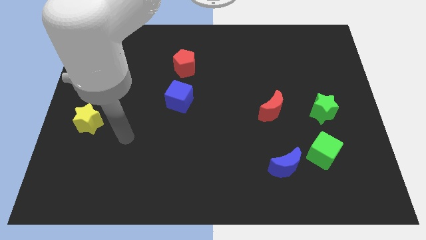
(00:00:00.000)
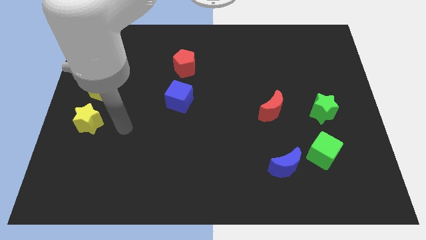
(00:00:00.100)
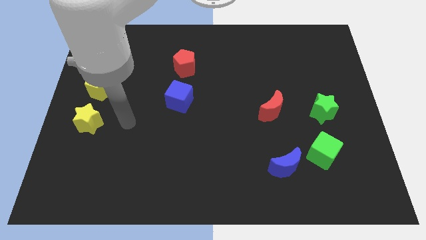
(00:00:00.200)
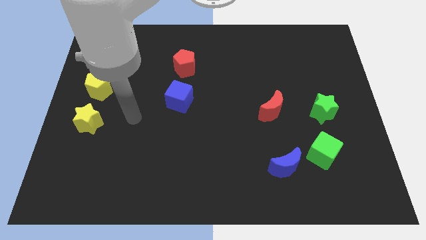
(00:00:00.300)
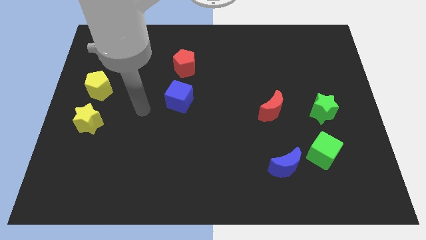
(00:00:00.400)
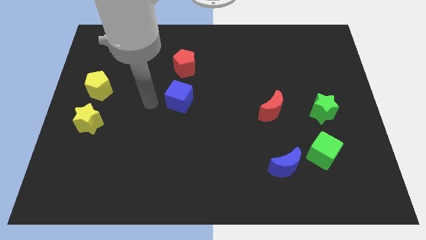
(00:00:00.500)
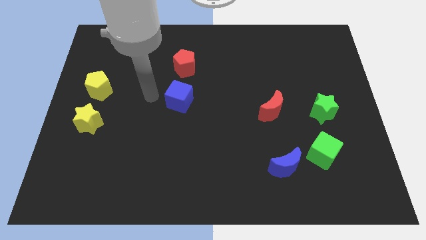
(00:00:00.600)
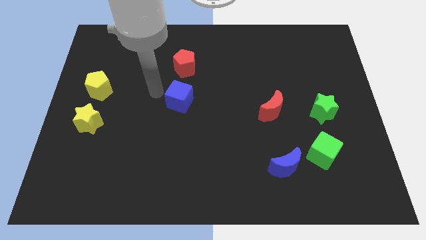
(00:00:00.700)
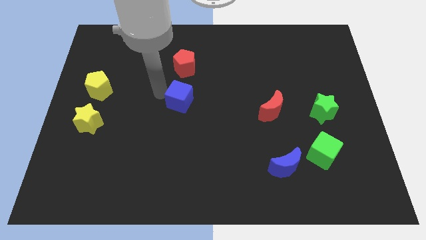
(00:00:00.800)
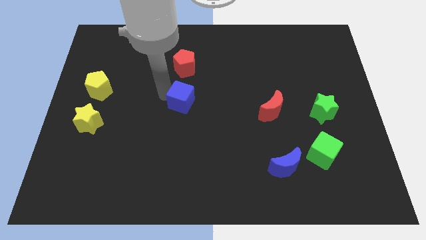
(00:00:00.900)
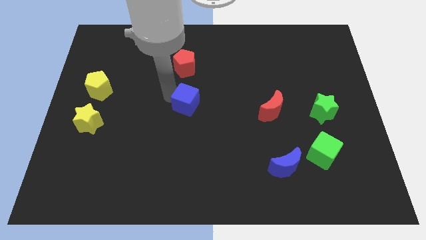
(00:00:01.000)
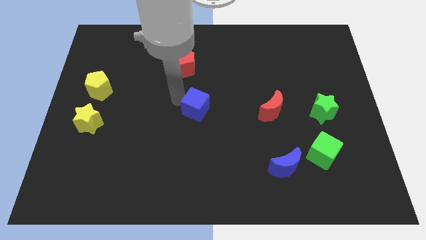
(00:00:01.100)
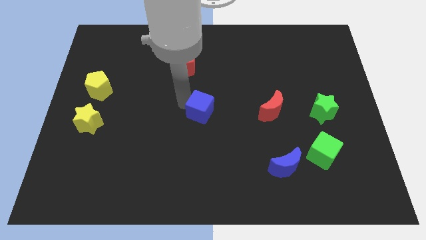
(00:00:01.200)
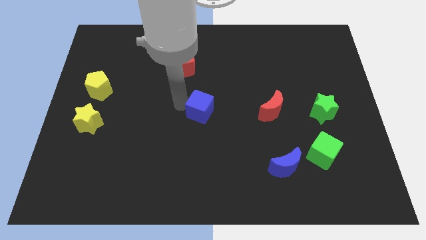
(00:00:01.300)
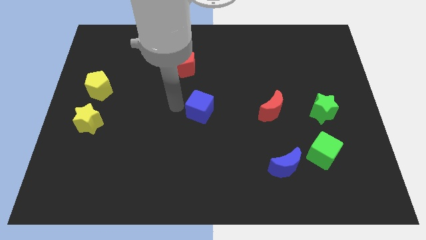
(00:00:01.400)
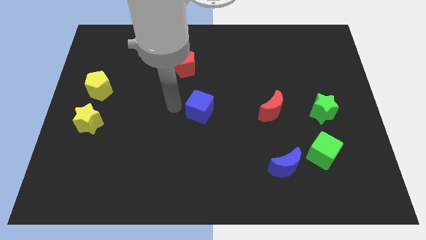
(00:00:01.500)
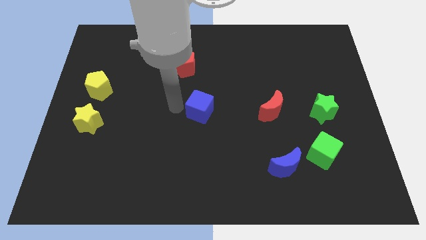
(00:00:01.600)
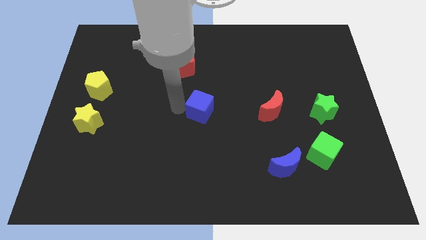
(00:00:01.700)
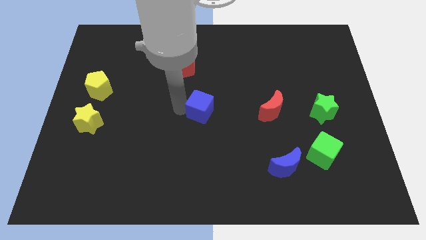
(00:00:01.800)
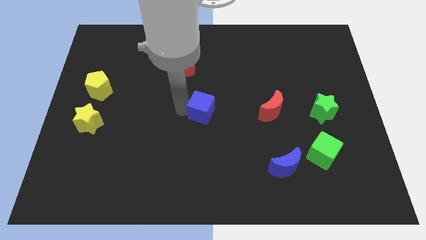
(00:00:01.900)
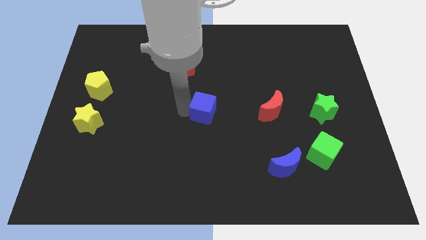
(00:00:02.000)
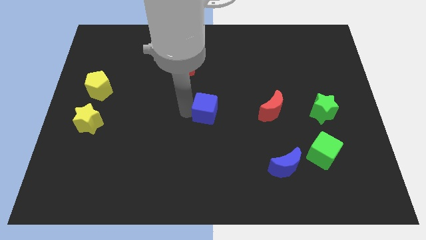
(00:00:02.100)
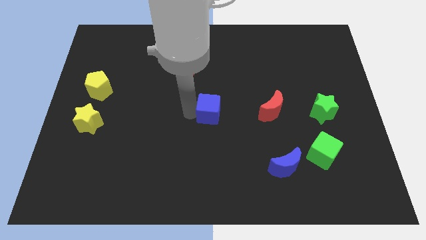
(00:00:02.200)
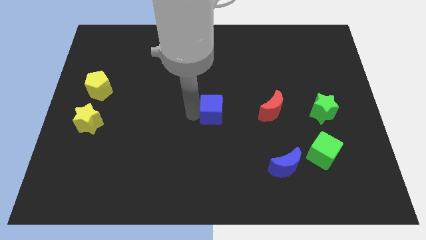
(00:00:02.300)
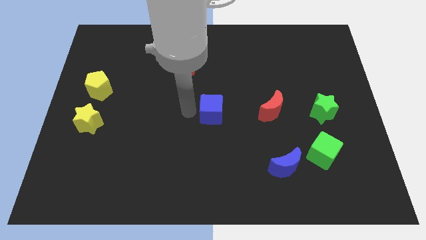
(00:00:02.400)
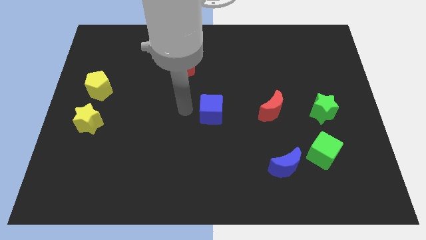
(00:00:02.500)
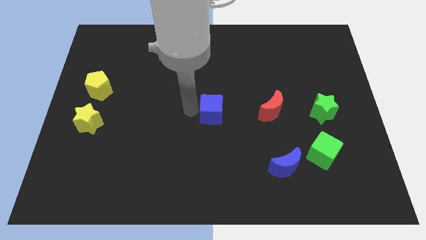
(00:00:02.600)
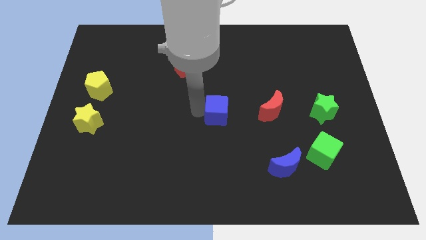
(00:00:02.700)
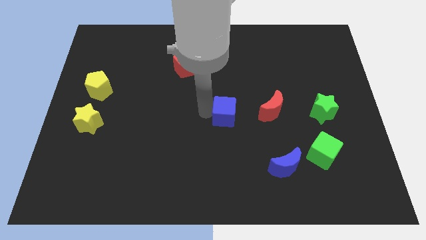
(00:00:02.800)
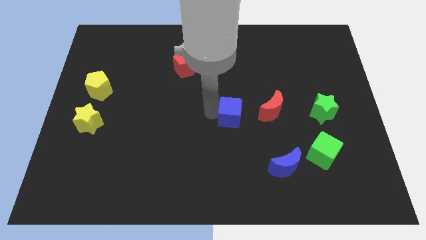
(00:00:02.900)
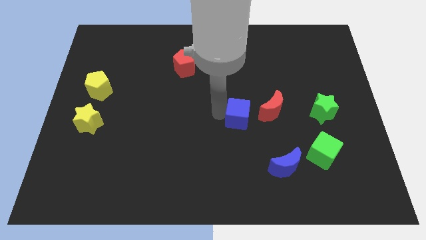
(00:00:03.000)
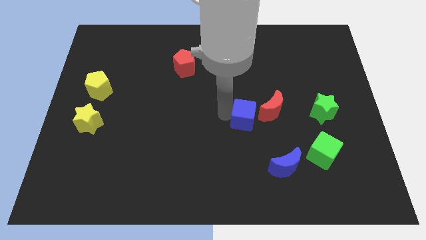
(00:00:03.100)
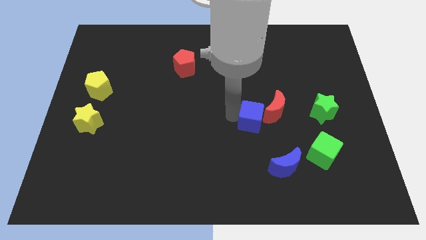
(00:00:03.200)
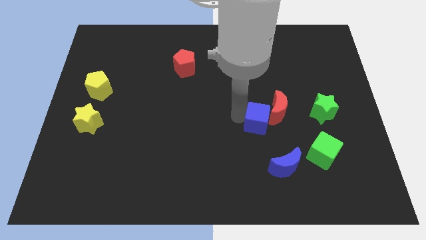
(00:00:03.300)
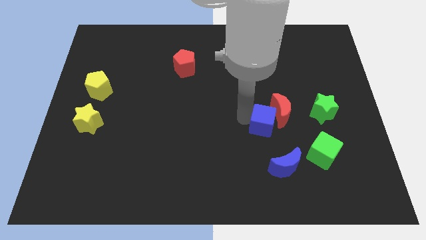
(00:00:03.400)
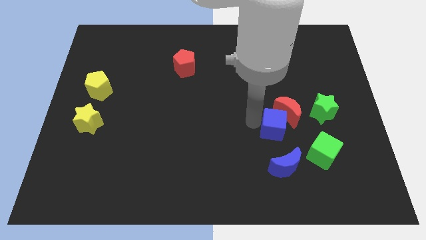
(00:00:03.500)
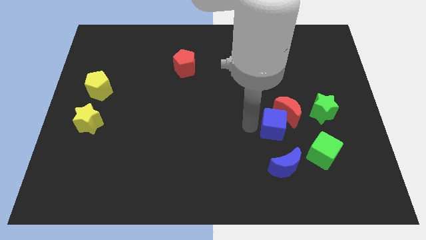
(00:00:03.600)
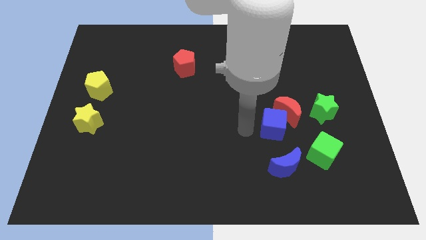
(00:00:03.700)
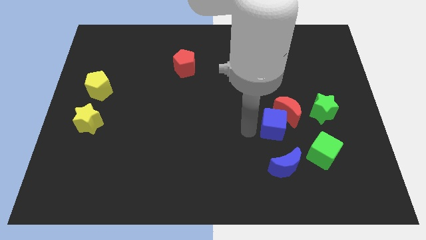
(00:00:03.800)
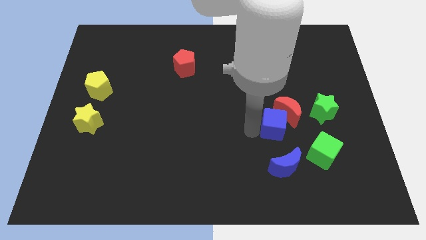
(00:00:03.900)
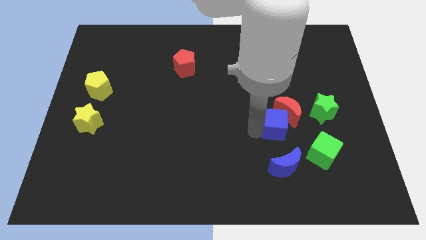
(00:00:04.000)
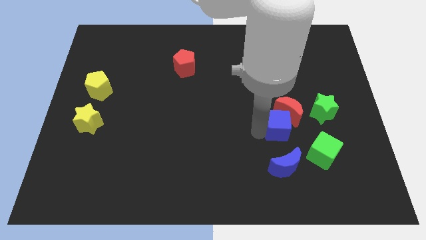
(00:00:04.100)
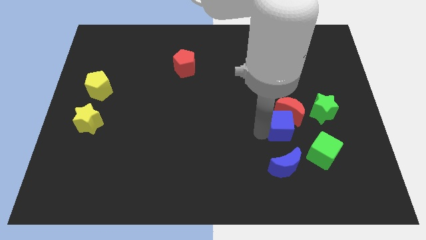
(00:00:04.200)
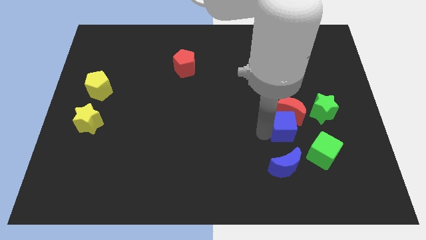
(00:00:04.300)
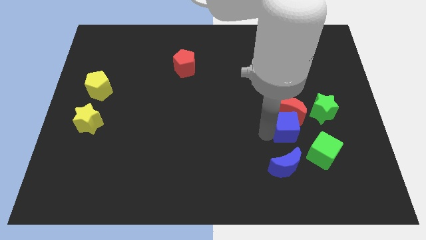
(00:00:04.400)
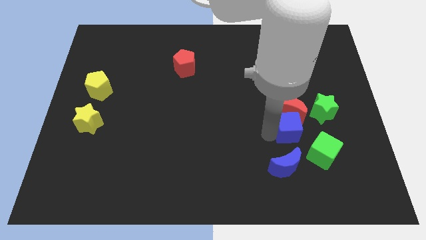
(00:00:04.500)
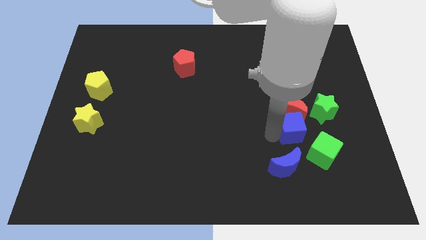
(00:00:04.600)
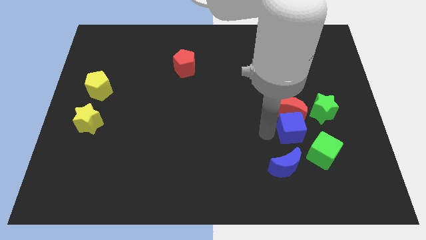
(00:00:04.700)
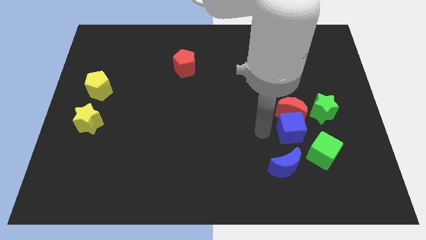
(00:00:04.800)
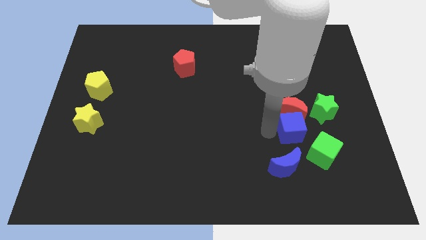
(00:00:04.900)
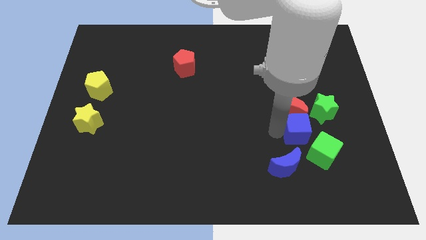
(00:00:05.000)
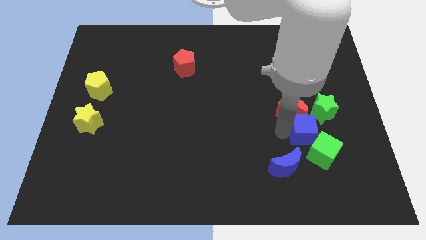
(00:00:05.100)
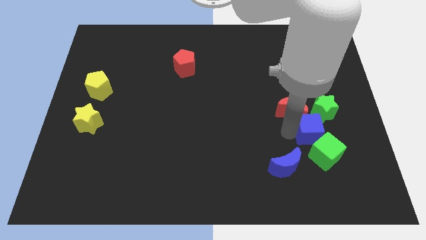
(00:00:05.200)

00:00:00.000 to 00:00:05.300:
put the blue cube below the green star

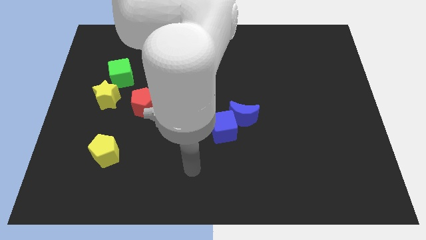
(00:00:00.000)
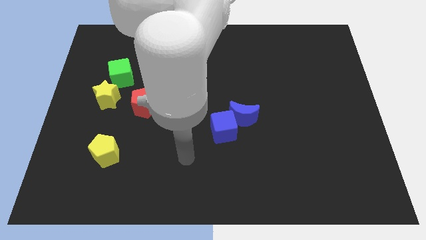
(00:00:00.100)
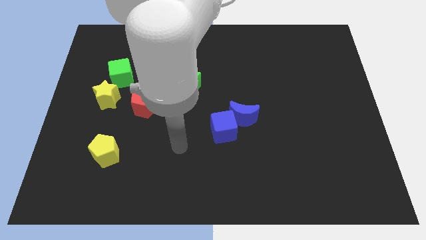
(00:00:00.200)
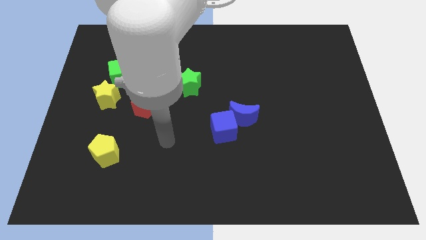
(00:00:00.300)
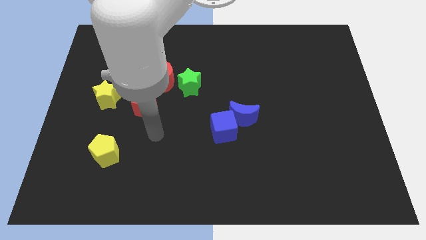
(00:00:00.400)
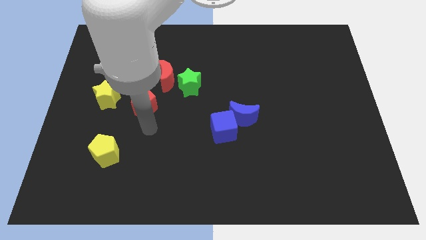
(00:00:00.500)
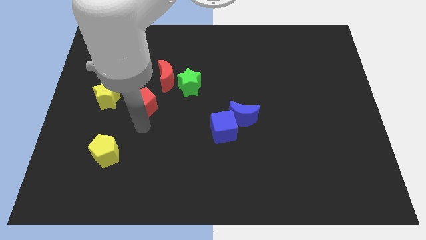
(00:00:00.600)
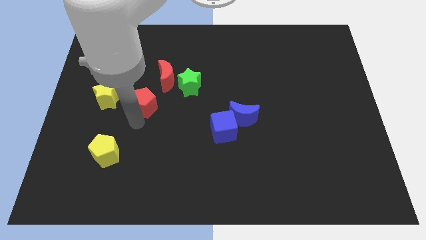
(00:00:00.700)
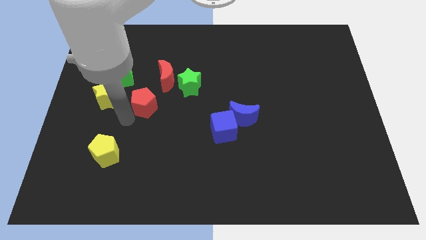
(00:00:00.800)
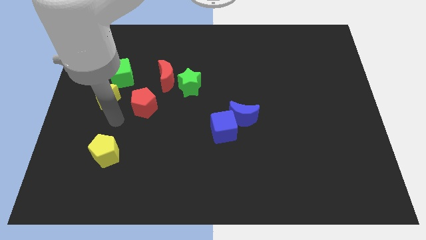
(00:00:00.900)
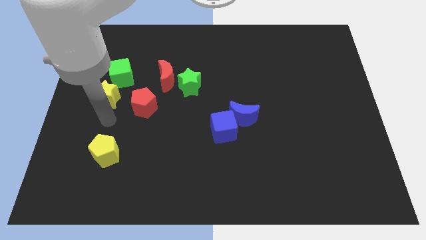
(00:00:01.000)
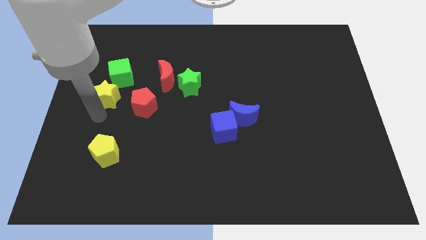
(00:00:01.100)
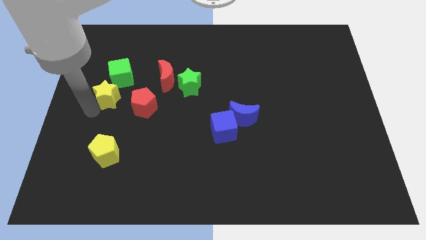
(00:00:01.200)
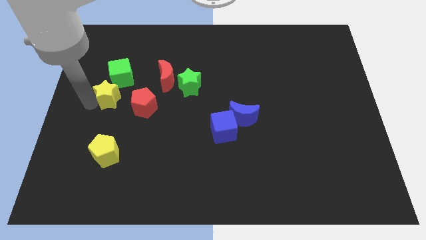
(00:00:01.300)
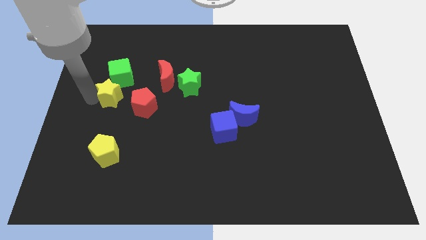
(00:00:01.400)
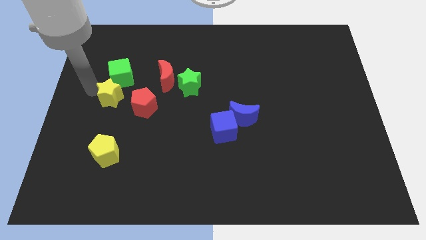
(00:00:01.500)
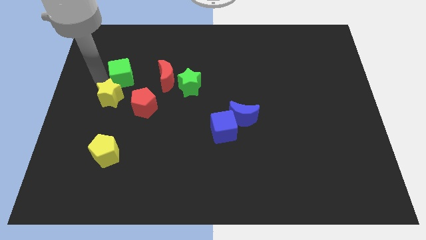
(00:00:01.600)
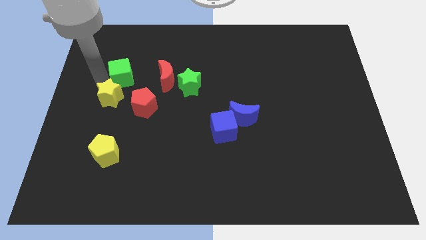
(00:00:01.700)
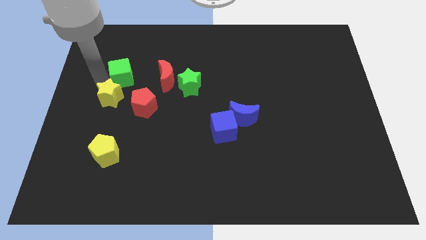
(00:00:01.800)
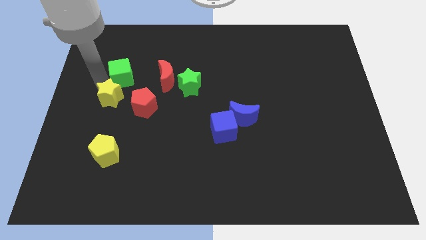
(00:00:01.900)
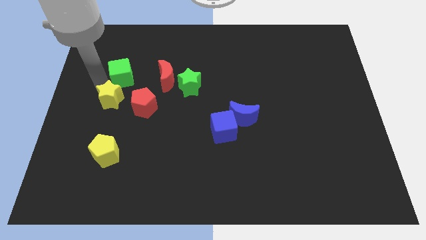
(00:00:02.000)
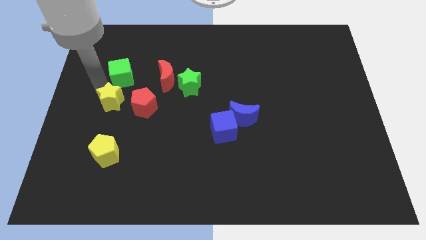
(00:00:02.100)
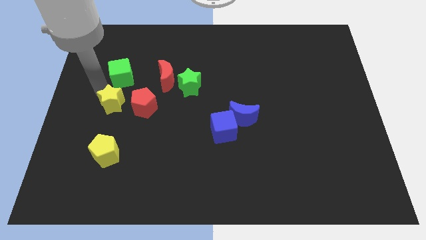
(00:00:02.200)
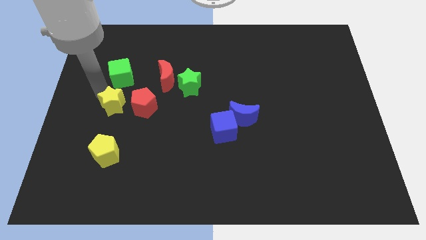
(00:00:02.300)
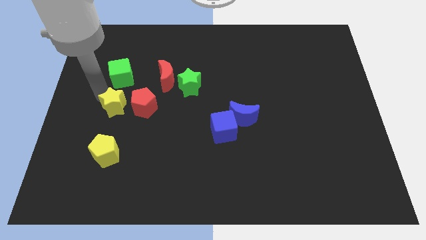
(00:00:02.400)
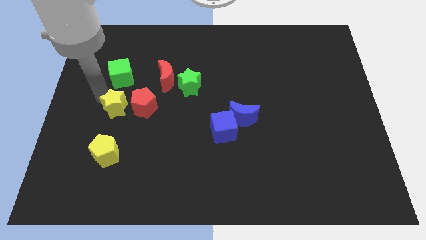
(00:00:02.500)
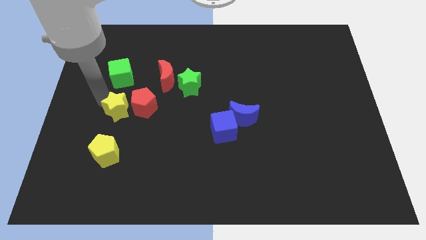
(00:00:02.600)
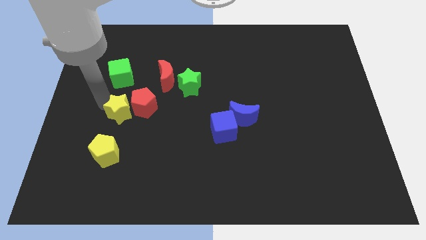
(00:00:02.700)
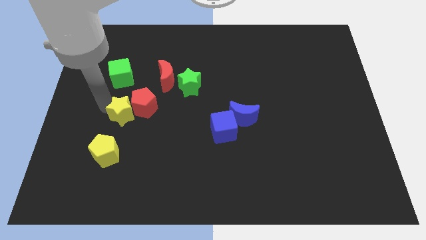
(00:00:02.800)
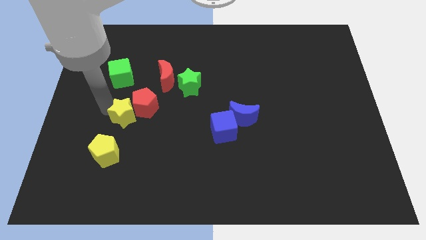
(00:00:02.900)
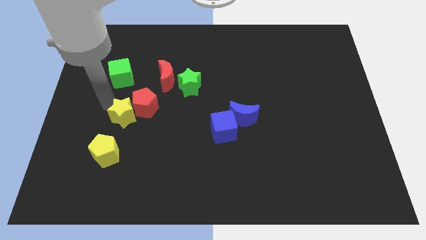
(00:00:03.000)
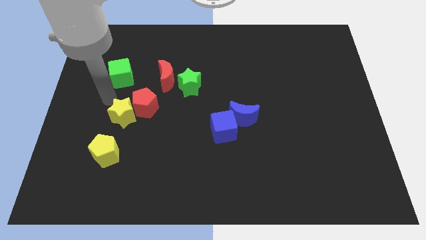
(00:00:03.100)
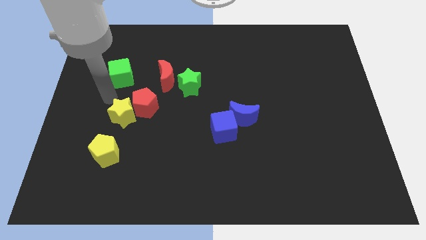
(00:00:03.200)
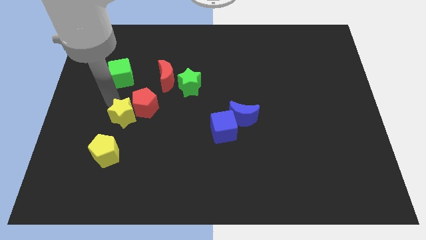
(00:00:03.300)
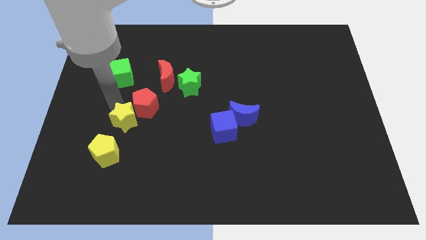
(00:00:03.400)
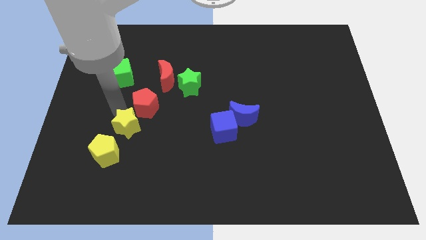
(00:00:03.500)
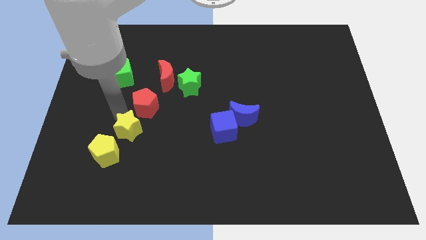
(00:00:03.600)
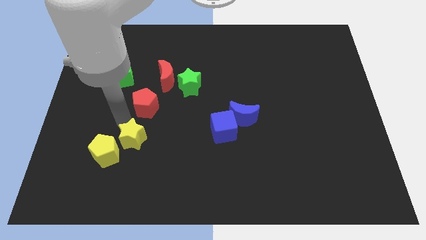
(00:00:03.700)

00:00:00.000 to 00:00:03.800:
move the yellow star to the right of the yellow pentagon
